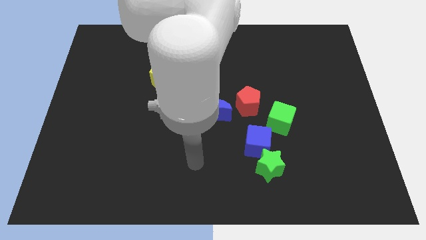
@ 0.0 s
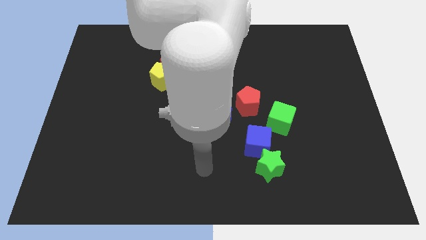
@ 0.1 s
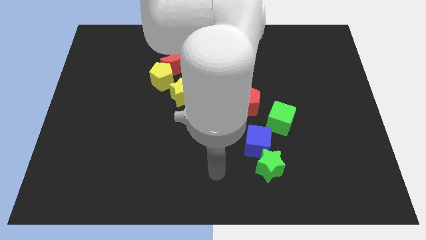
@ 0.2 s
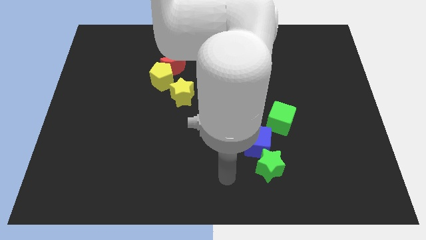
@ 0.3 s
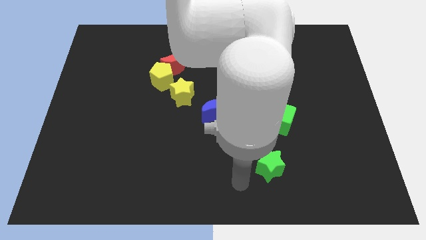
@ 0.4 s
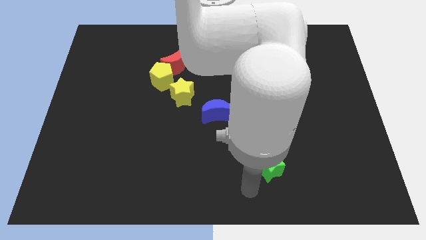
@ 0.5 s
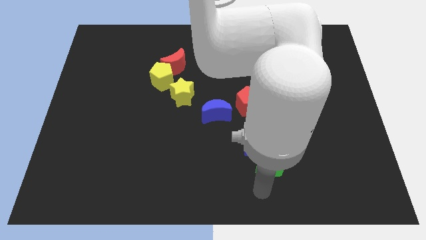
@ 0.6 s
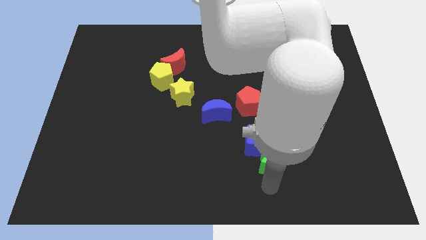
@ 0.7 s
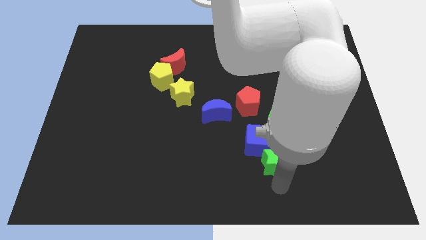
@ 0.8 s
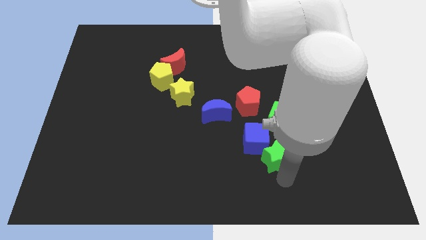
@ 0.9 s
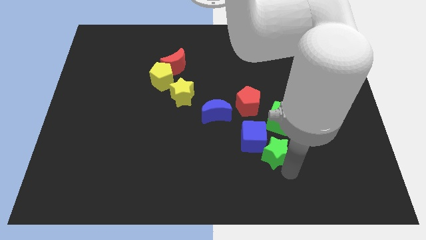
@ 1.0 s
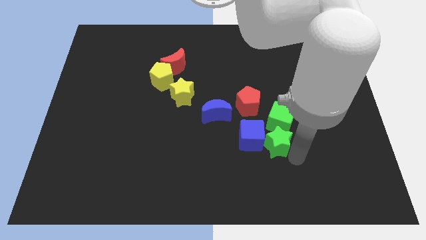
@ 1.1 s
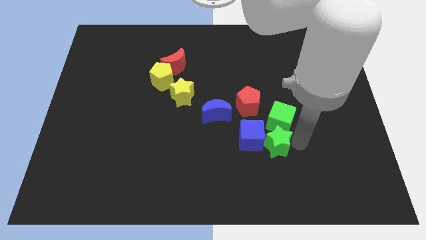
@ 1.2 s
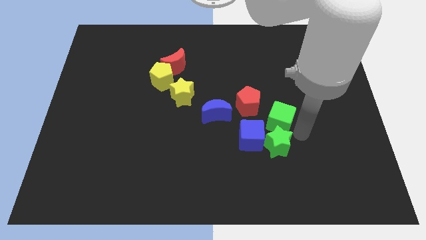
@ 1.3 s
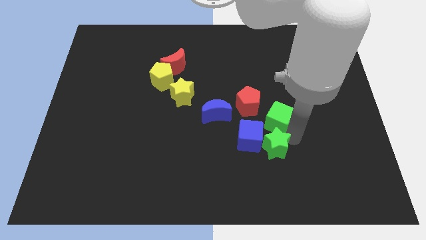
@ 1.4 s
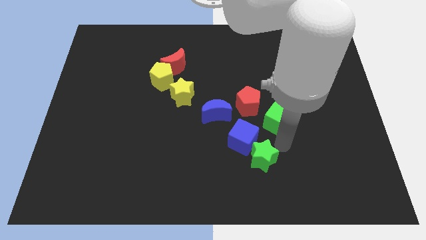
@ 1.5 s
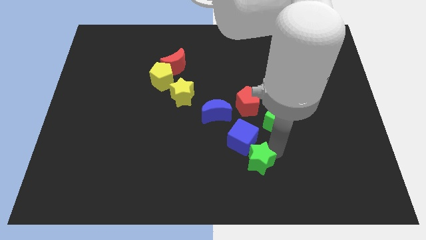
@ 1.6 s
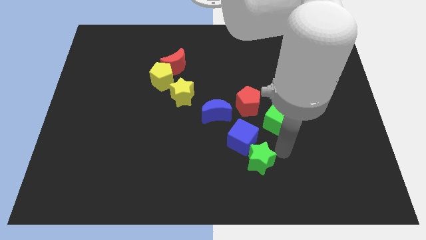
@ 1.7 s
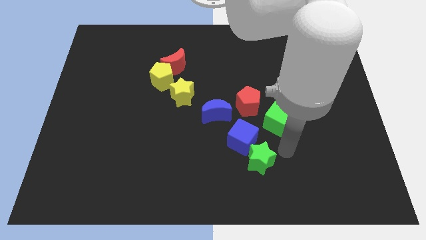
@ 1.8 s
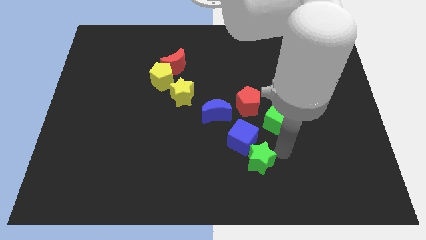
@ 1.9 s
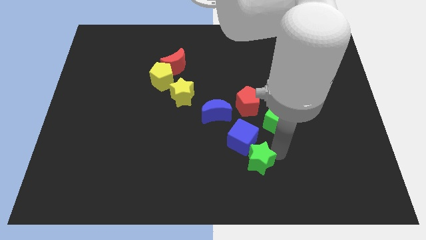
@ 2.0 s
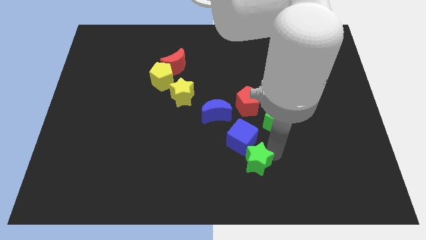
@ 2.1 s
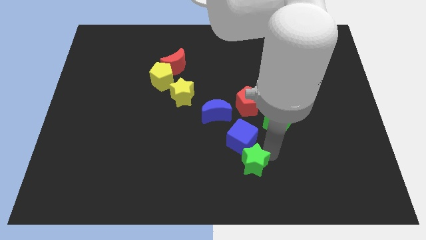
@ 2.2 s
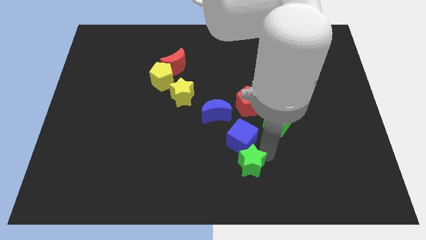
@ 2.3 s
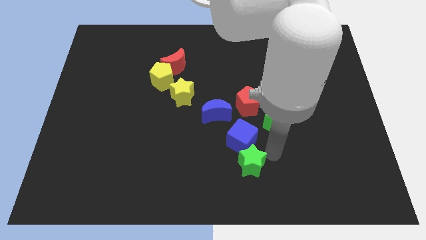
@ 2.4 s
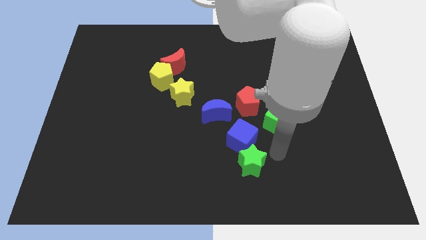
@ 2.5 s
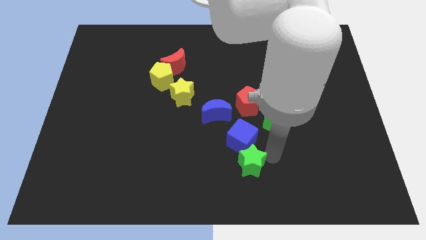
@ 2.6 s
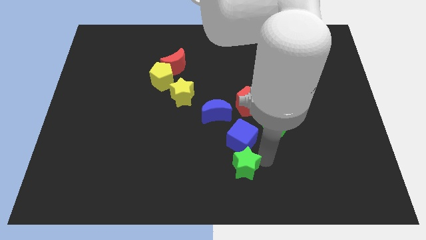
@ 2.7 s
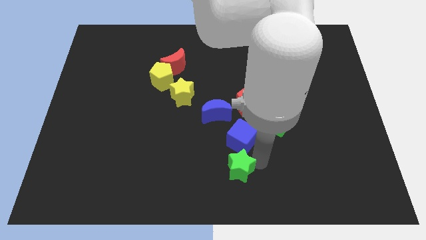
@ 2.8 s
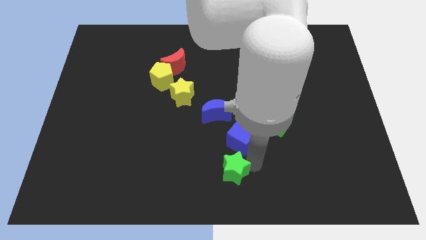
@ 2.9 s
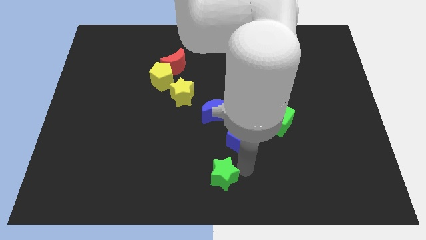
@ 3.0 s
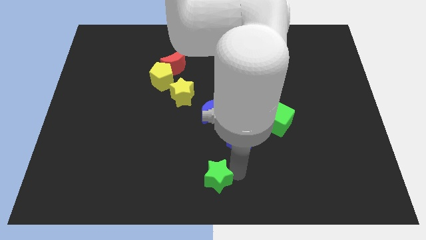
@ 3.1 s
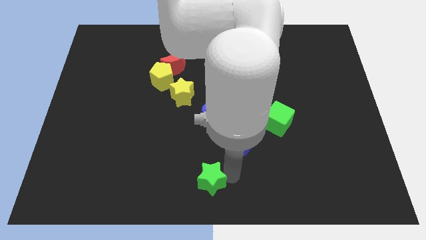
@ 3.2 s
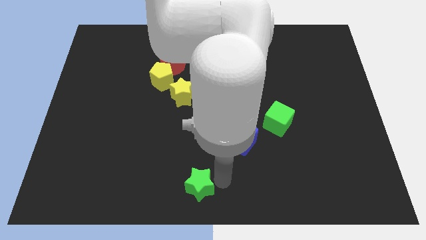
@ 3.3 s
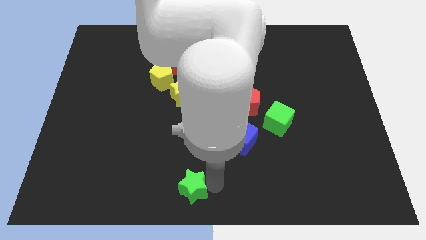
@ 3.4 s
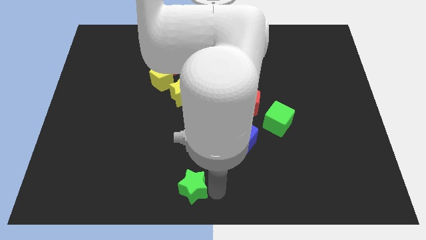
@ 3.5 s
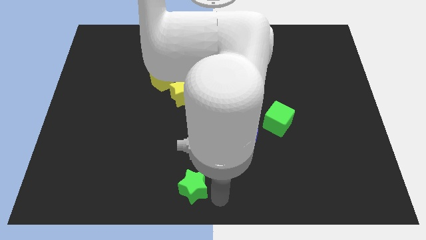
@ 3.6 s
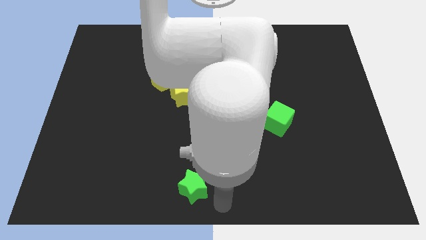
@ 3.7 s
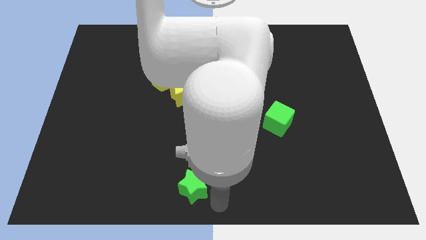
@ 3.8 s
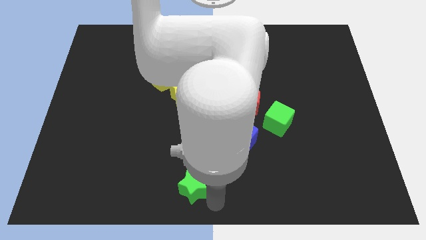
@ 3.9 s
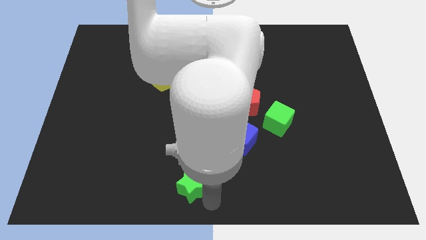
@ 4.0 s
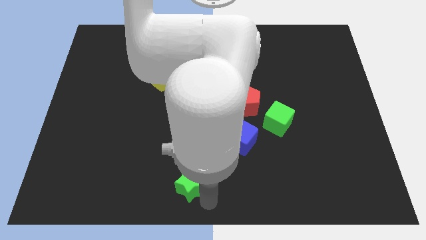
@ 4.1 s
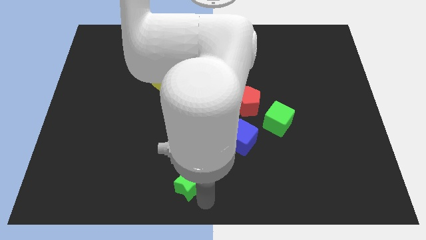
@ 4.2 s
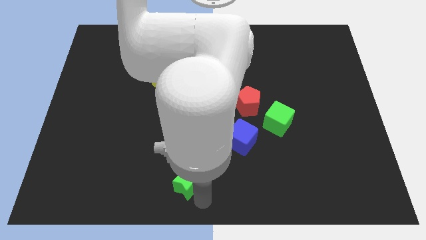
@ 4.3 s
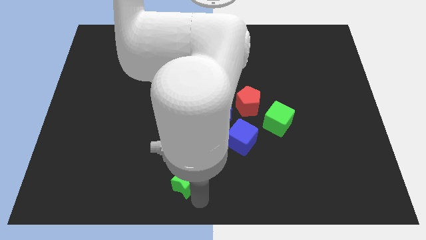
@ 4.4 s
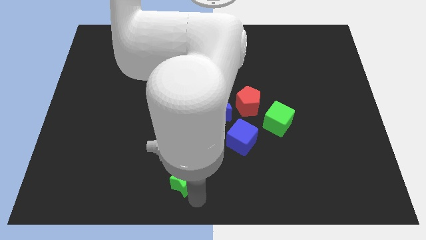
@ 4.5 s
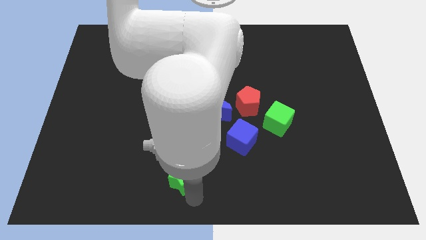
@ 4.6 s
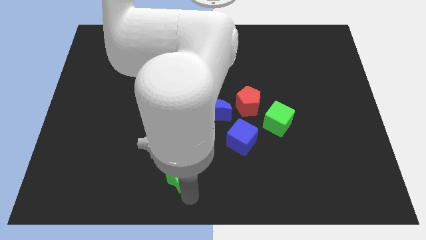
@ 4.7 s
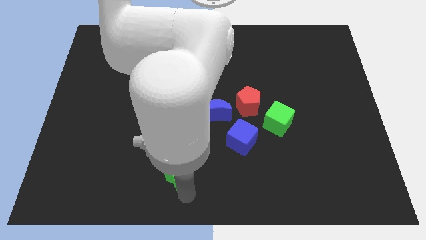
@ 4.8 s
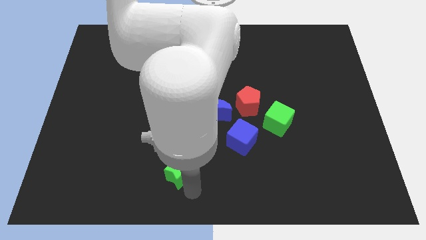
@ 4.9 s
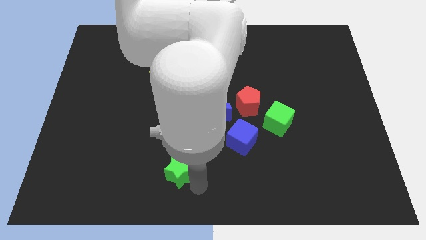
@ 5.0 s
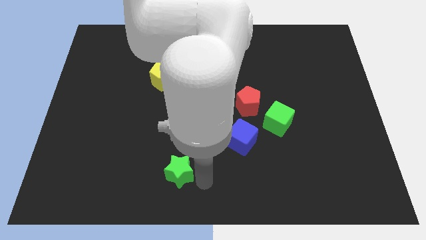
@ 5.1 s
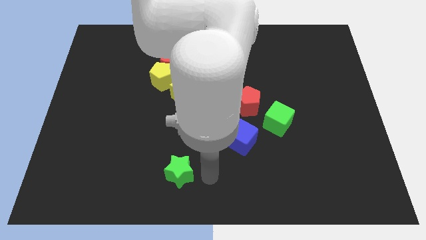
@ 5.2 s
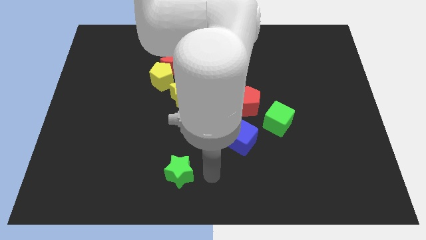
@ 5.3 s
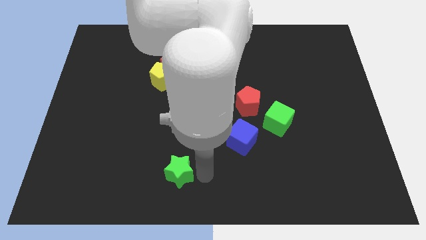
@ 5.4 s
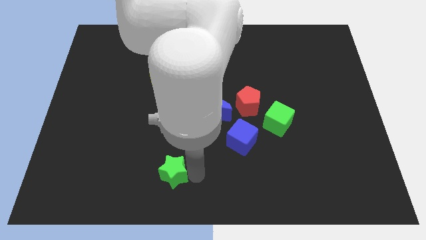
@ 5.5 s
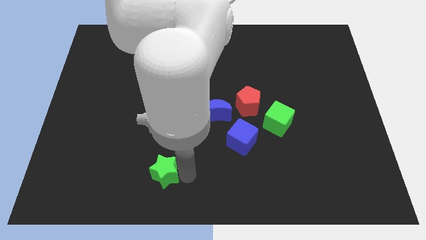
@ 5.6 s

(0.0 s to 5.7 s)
move the green star to the left

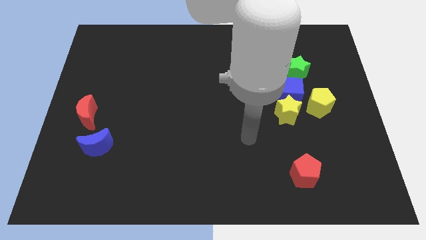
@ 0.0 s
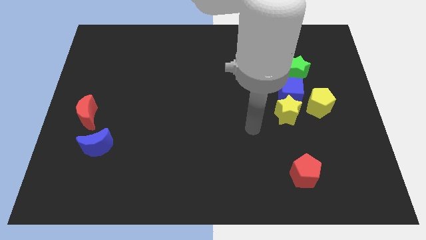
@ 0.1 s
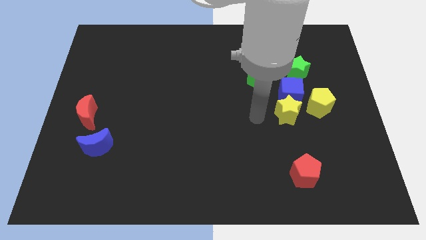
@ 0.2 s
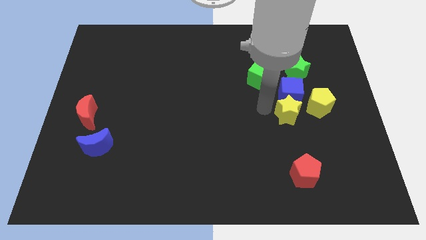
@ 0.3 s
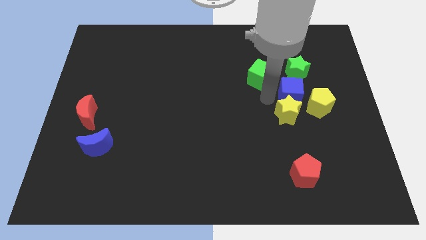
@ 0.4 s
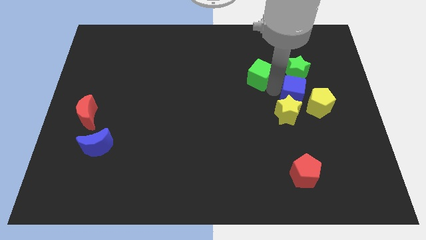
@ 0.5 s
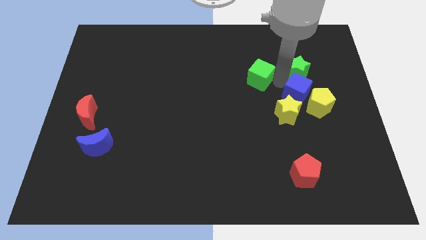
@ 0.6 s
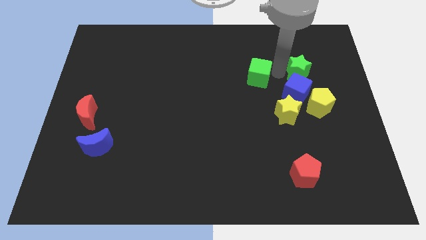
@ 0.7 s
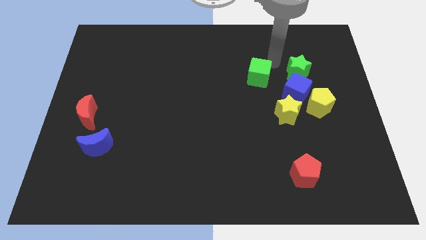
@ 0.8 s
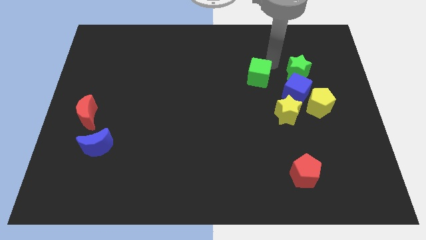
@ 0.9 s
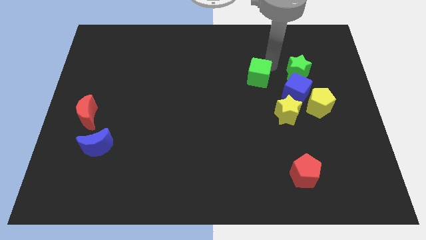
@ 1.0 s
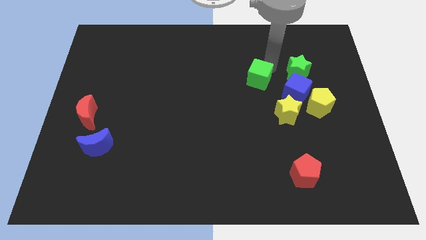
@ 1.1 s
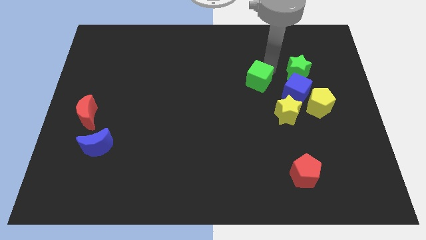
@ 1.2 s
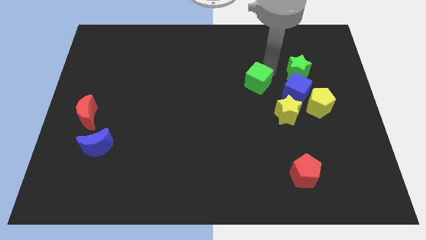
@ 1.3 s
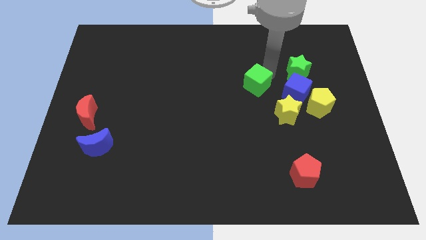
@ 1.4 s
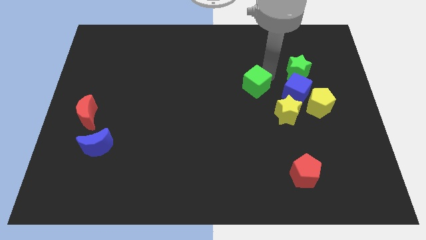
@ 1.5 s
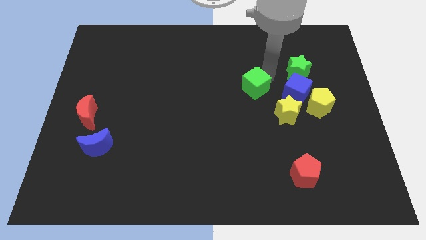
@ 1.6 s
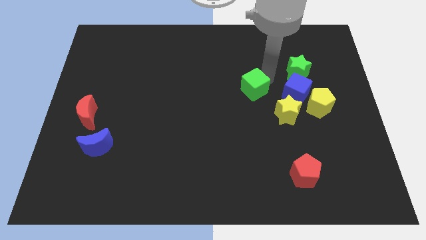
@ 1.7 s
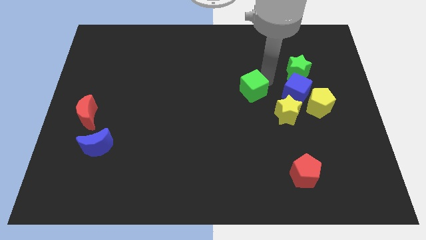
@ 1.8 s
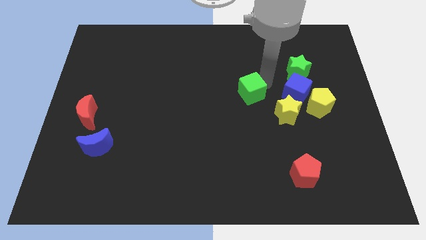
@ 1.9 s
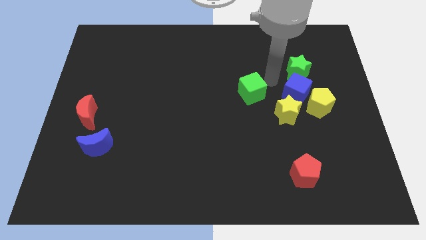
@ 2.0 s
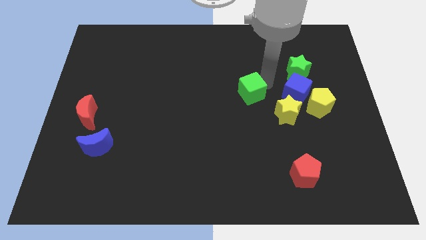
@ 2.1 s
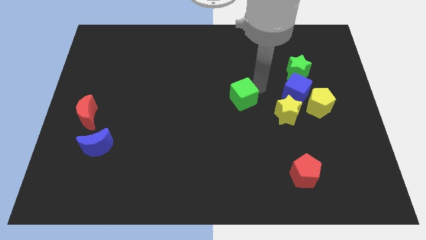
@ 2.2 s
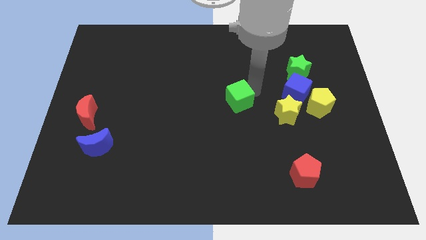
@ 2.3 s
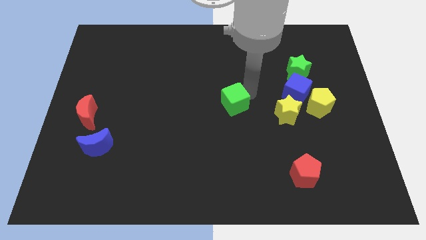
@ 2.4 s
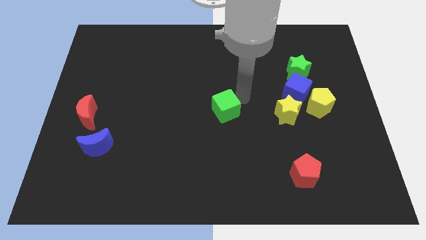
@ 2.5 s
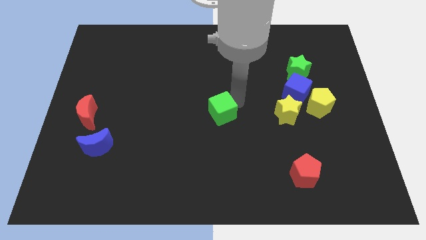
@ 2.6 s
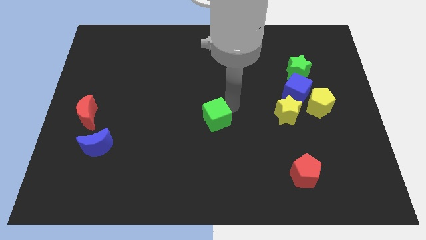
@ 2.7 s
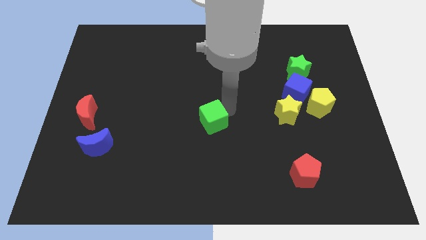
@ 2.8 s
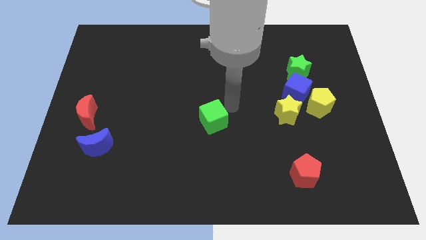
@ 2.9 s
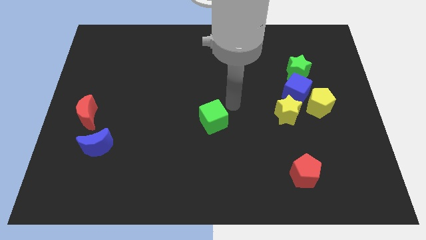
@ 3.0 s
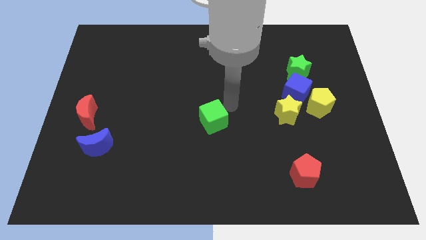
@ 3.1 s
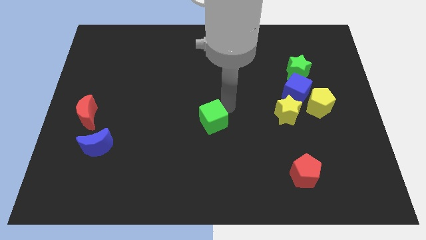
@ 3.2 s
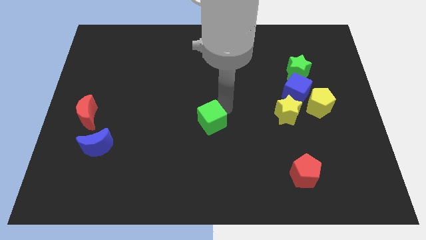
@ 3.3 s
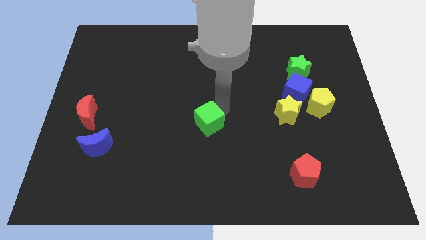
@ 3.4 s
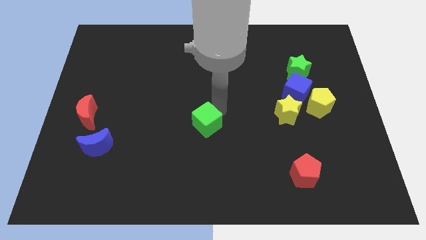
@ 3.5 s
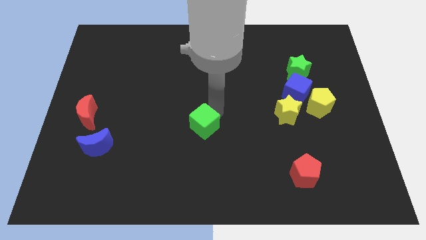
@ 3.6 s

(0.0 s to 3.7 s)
move the green cube downwards and then left
